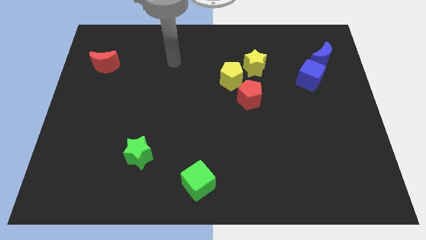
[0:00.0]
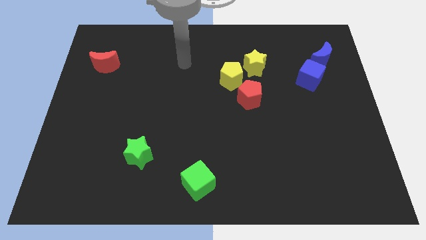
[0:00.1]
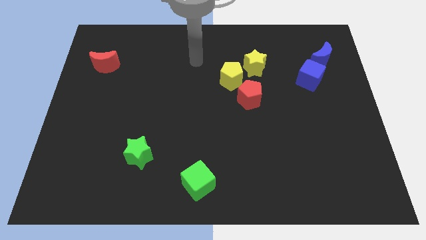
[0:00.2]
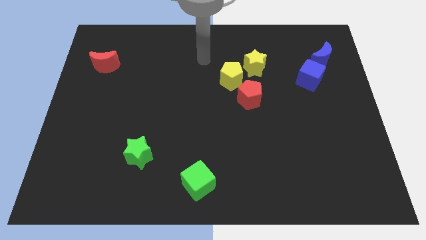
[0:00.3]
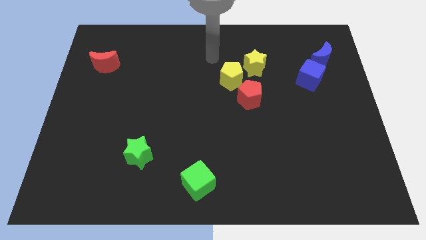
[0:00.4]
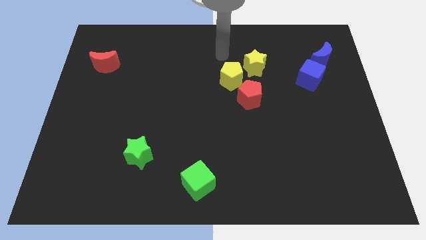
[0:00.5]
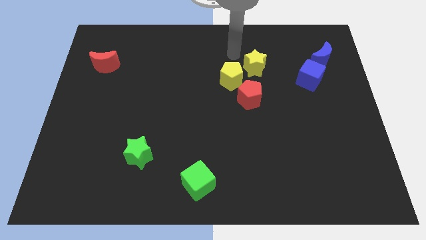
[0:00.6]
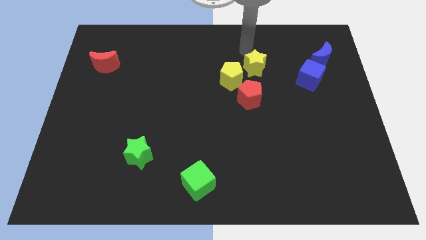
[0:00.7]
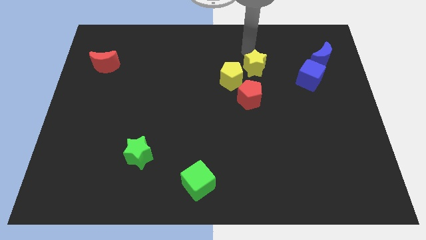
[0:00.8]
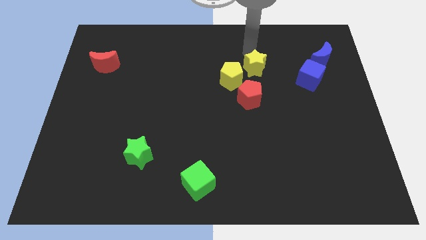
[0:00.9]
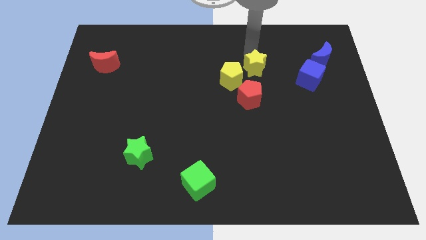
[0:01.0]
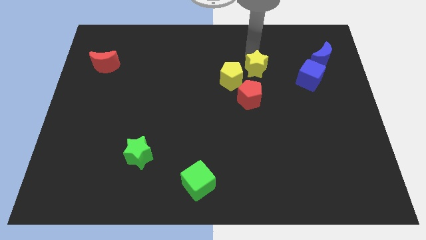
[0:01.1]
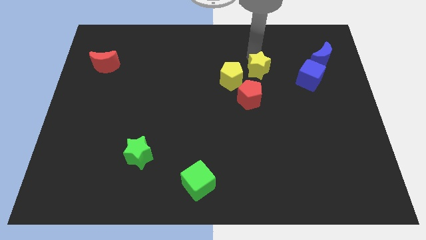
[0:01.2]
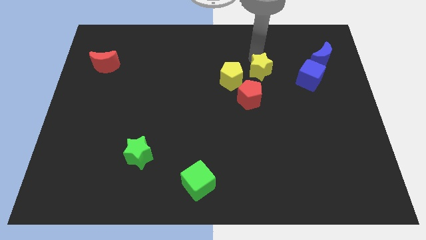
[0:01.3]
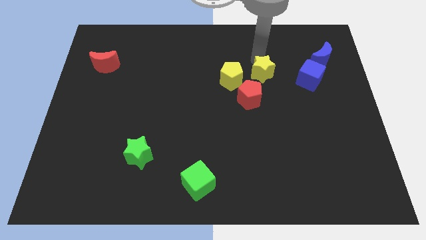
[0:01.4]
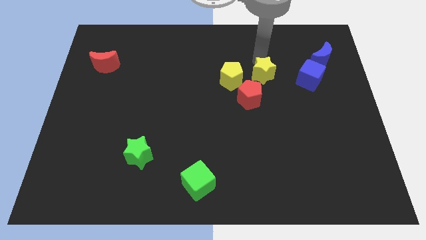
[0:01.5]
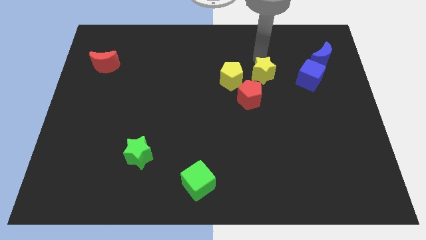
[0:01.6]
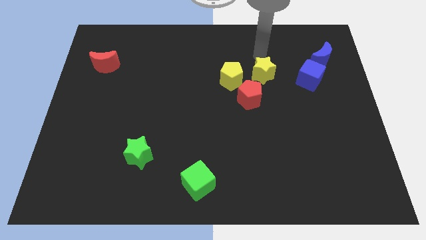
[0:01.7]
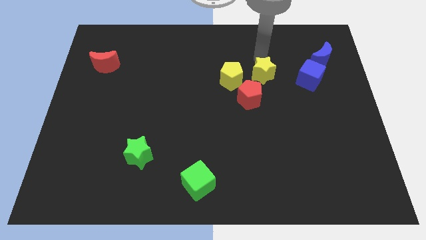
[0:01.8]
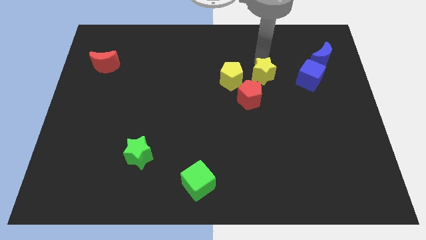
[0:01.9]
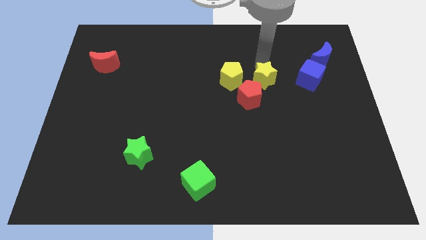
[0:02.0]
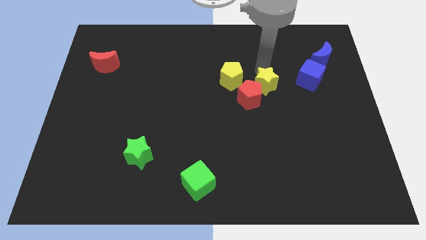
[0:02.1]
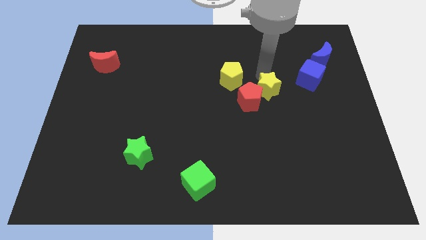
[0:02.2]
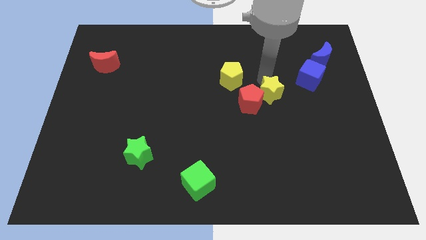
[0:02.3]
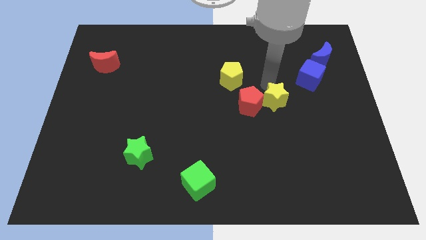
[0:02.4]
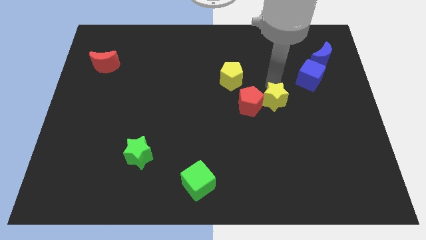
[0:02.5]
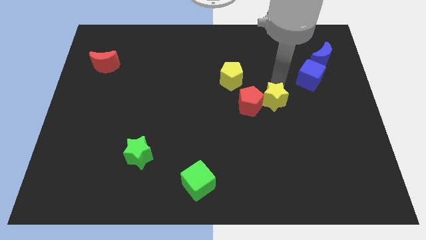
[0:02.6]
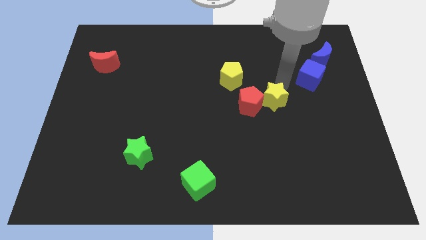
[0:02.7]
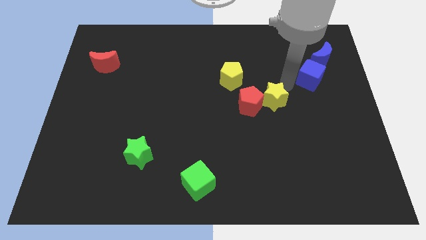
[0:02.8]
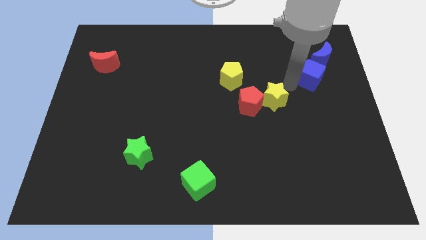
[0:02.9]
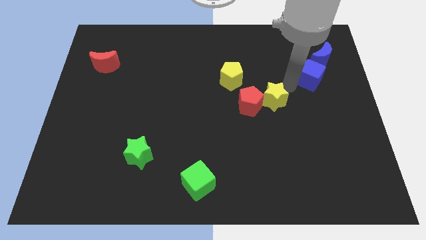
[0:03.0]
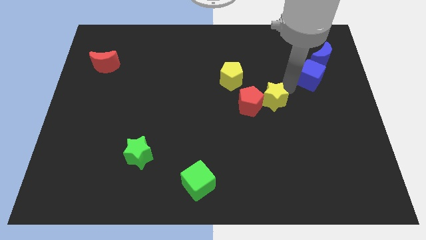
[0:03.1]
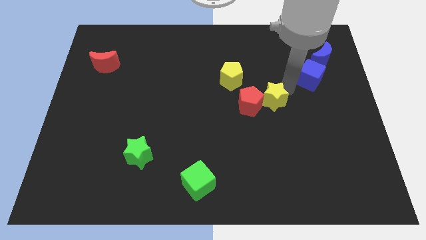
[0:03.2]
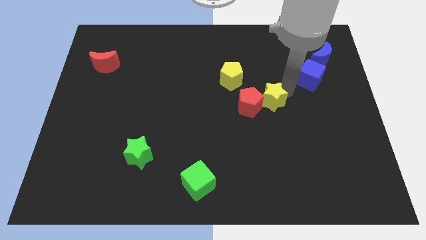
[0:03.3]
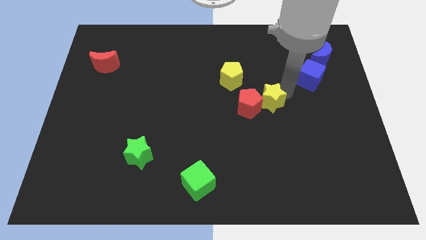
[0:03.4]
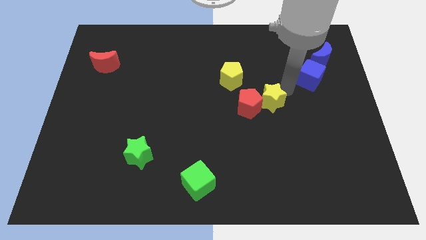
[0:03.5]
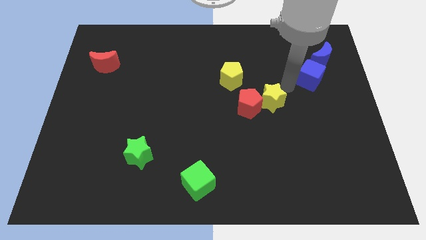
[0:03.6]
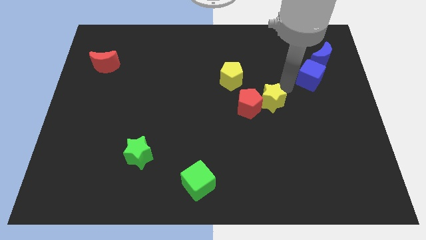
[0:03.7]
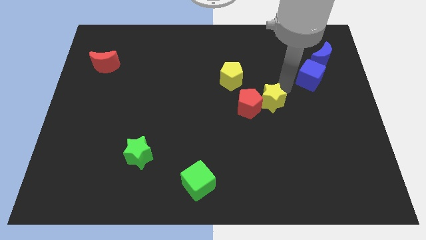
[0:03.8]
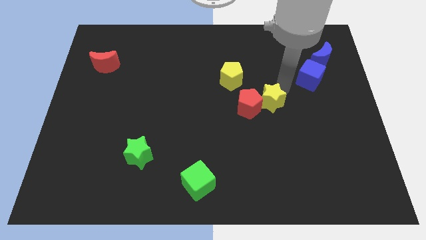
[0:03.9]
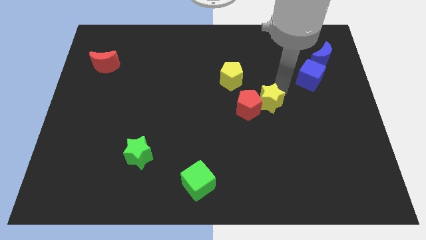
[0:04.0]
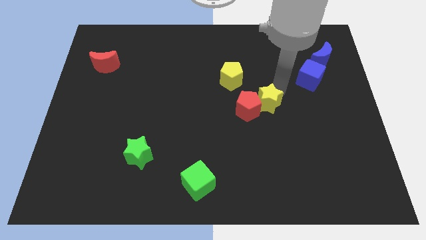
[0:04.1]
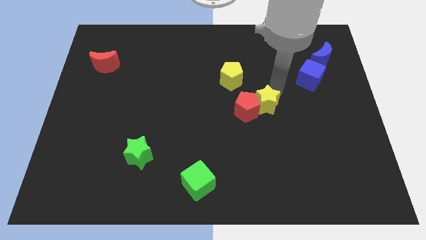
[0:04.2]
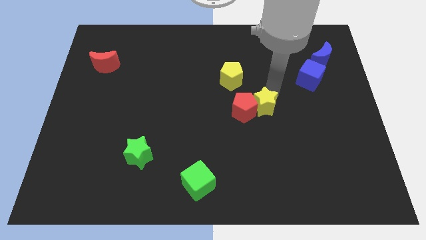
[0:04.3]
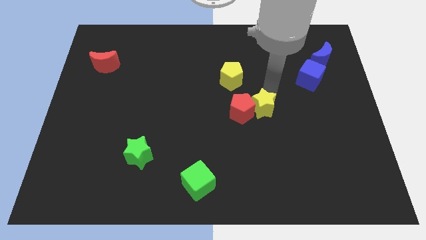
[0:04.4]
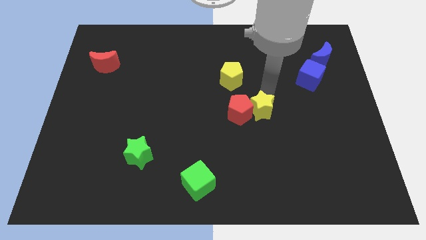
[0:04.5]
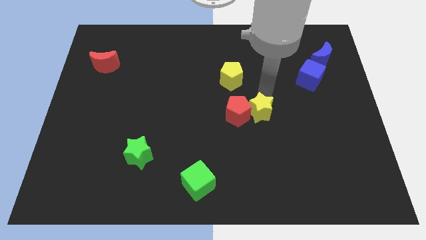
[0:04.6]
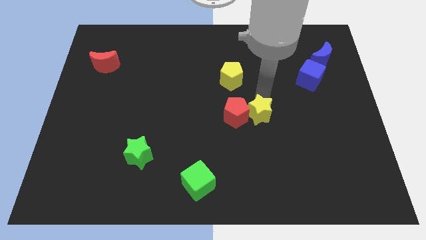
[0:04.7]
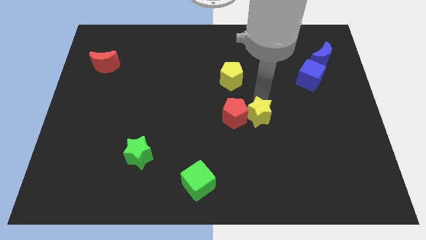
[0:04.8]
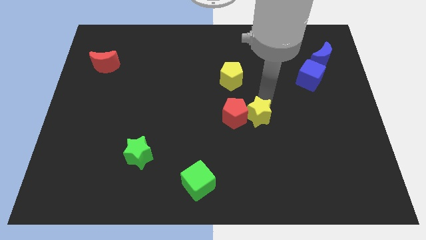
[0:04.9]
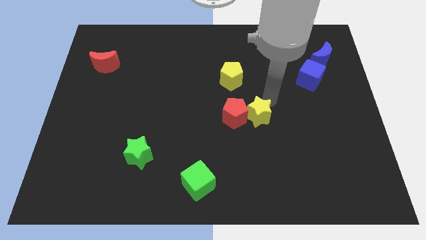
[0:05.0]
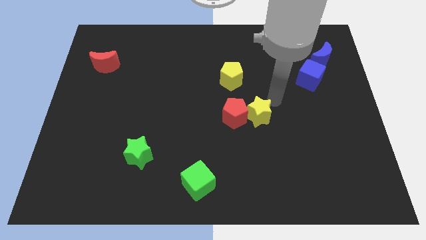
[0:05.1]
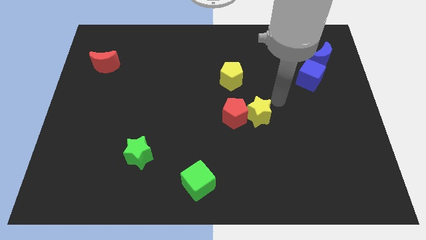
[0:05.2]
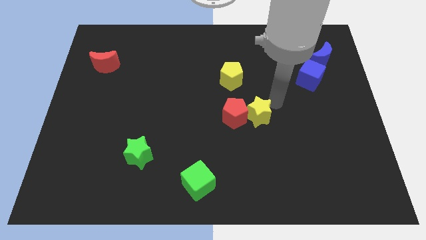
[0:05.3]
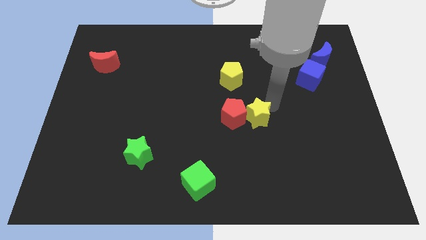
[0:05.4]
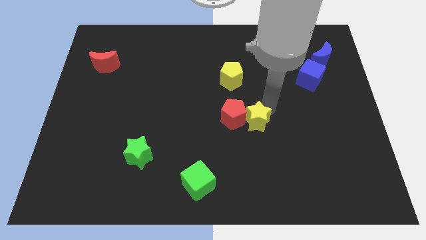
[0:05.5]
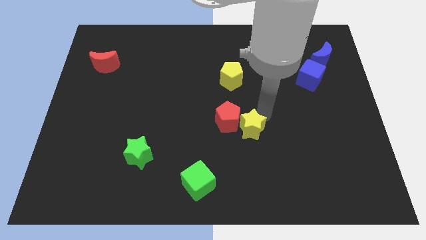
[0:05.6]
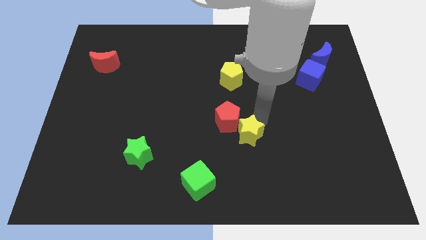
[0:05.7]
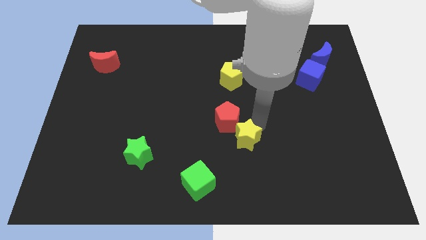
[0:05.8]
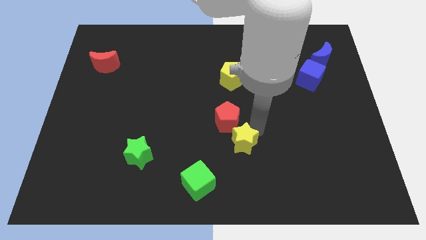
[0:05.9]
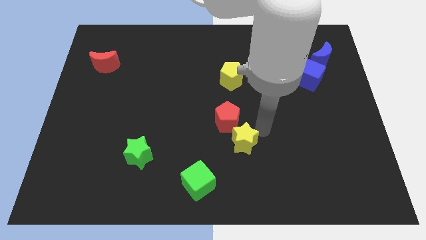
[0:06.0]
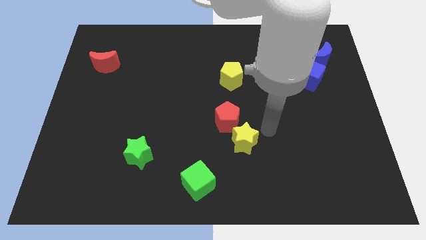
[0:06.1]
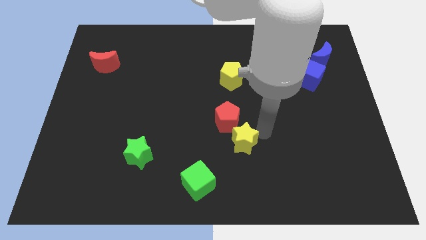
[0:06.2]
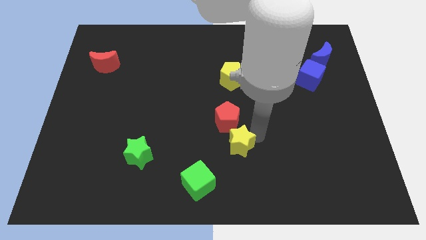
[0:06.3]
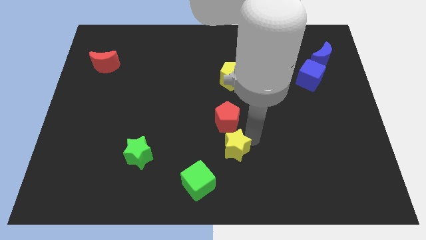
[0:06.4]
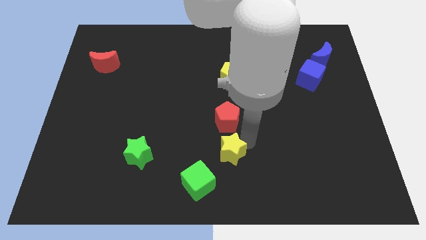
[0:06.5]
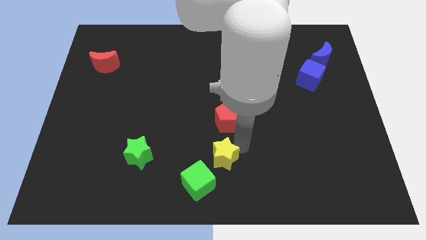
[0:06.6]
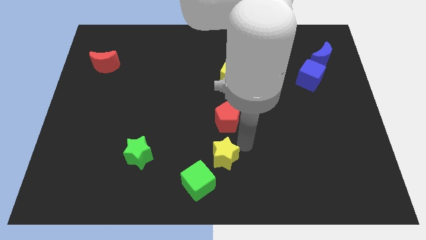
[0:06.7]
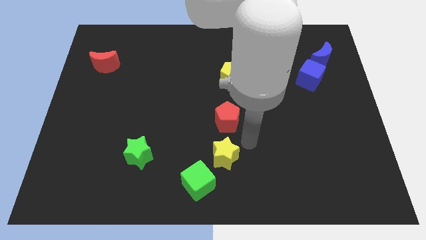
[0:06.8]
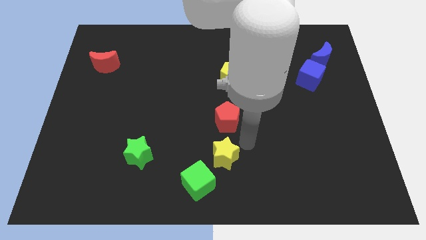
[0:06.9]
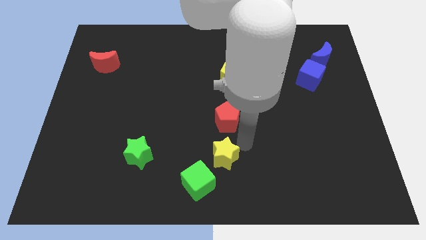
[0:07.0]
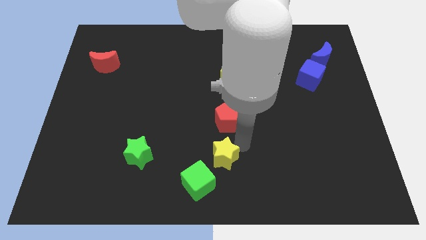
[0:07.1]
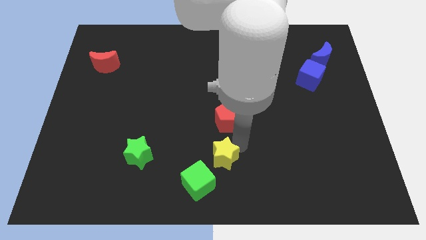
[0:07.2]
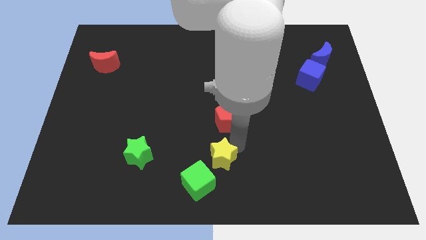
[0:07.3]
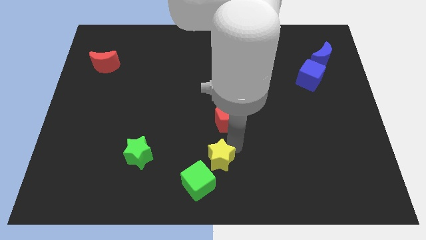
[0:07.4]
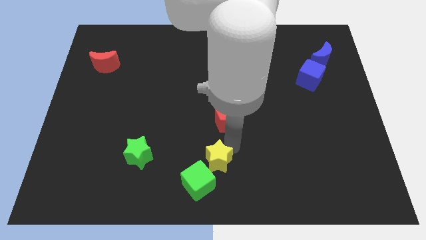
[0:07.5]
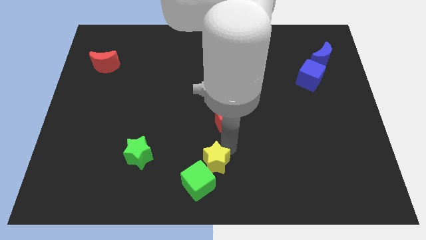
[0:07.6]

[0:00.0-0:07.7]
push the yellow star to the green cube

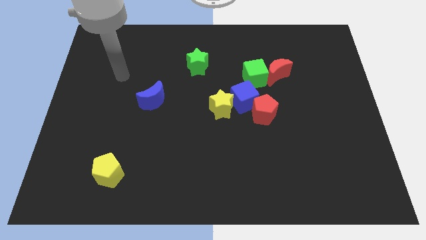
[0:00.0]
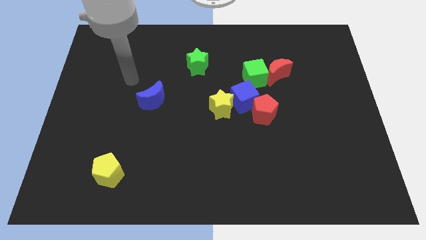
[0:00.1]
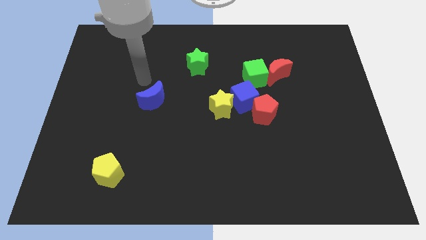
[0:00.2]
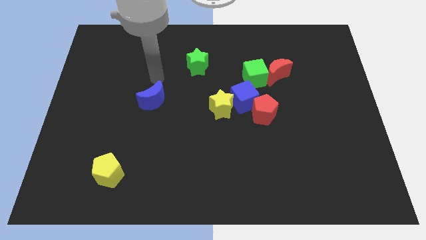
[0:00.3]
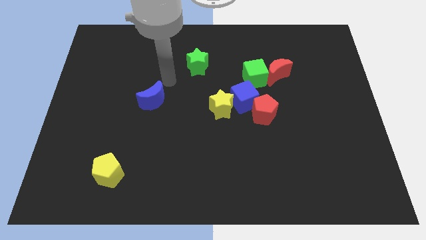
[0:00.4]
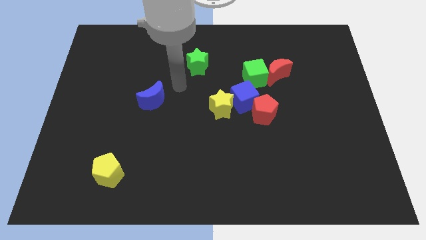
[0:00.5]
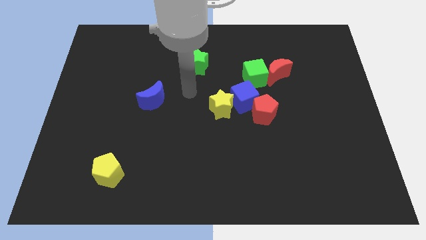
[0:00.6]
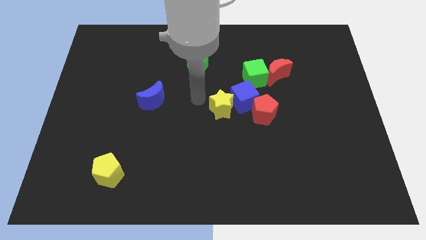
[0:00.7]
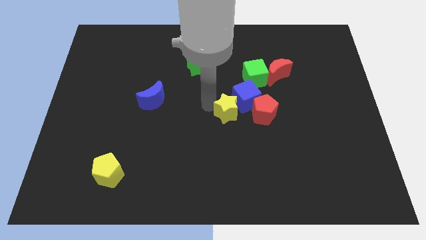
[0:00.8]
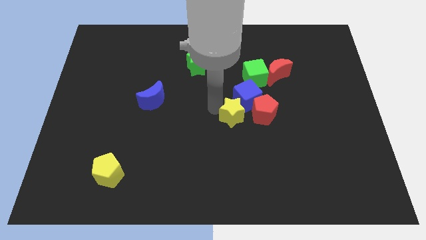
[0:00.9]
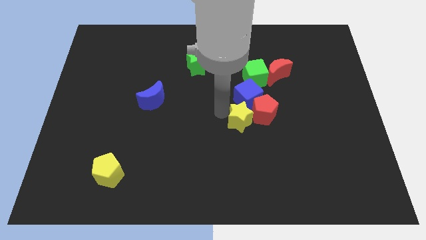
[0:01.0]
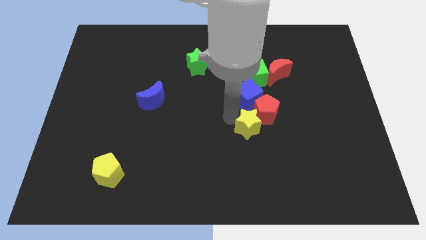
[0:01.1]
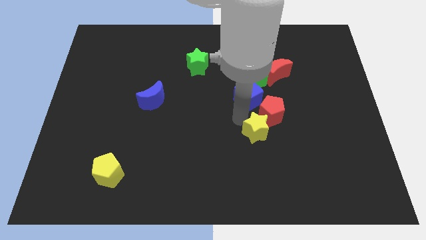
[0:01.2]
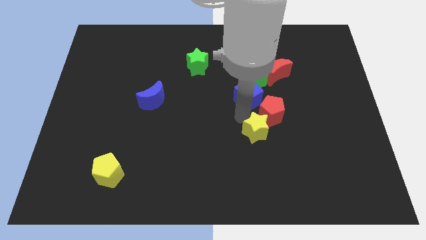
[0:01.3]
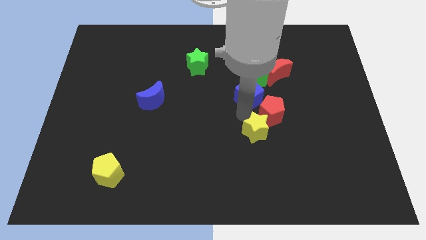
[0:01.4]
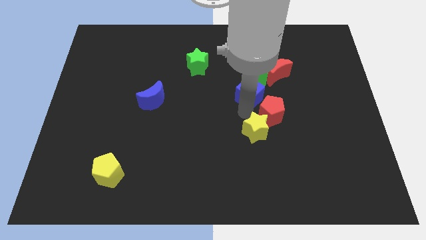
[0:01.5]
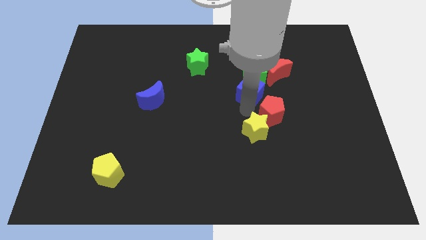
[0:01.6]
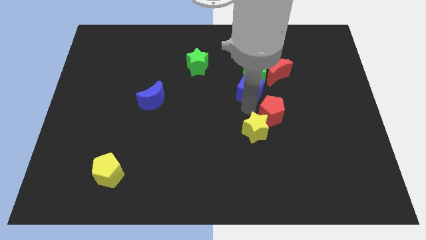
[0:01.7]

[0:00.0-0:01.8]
move the blue cube to the green cube
